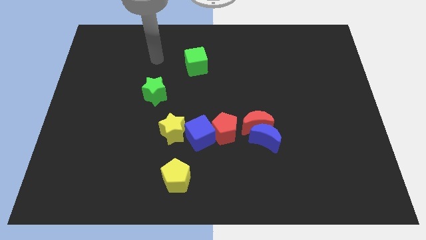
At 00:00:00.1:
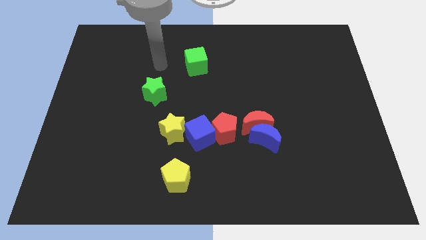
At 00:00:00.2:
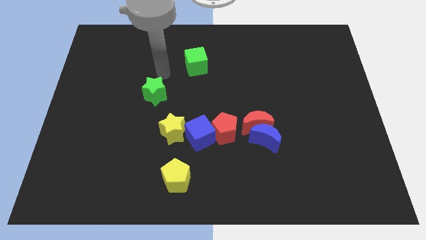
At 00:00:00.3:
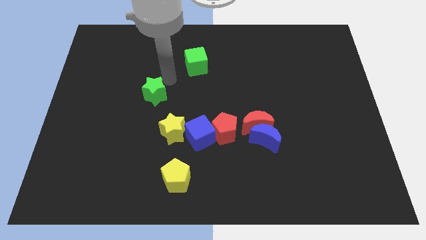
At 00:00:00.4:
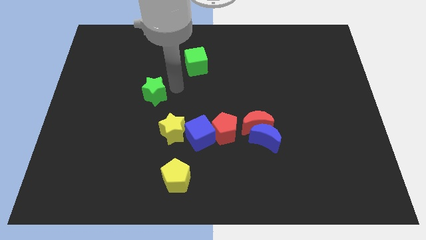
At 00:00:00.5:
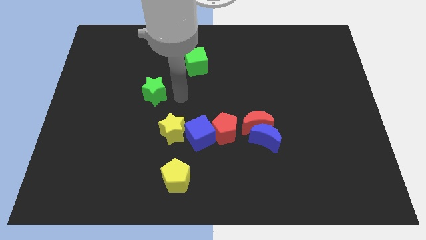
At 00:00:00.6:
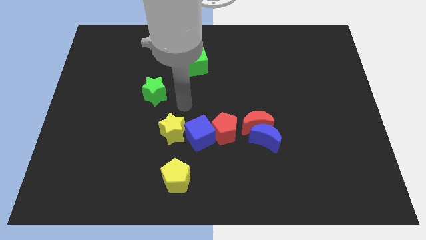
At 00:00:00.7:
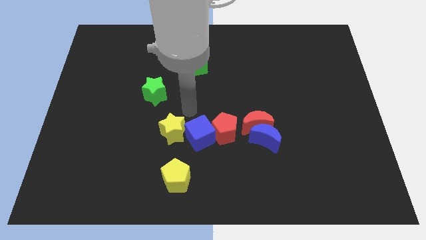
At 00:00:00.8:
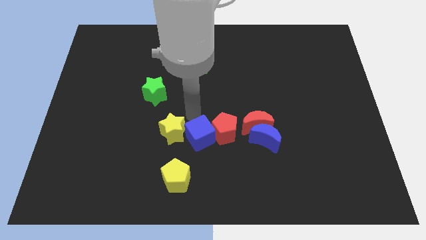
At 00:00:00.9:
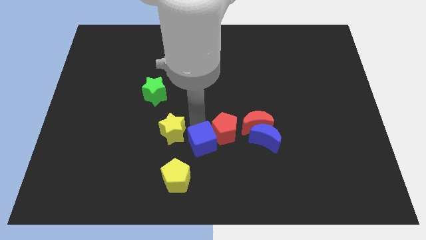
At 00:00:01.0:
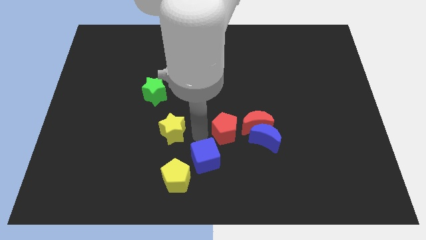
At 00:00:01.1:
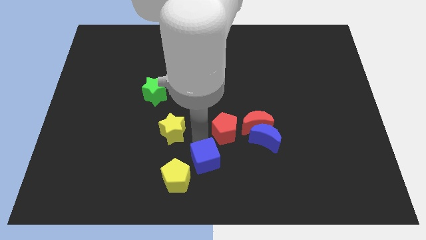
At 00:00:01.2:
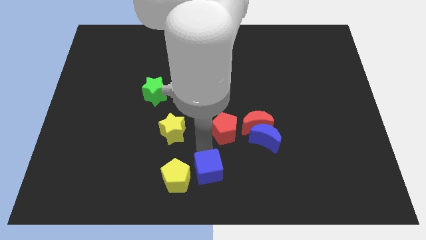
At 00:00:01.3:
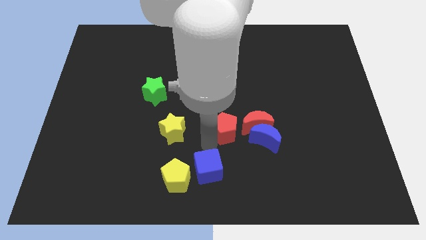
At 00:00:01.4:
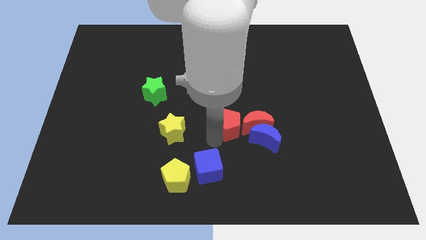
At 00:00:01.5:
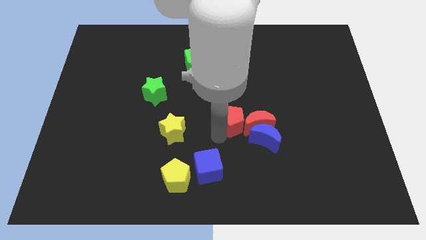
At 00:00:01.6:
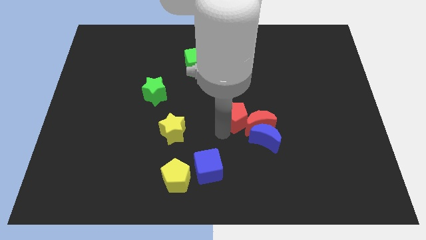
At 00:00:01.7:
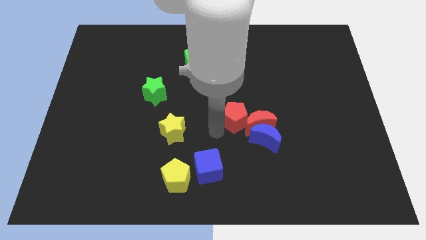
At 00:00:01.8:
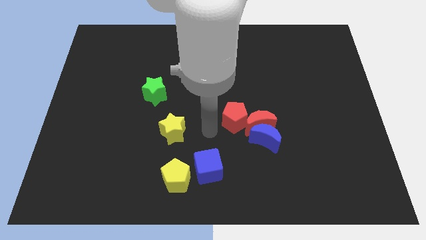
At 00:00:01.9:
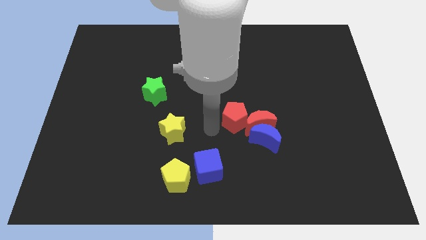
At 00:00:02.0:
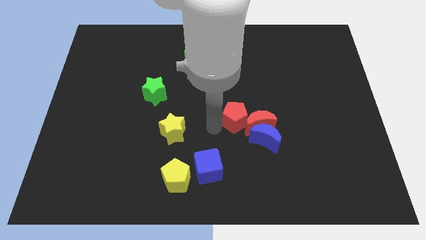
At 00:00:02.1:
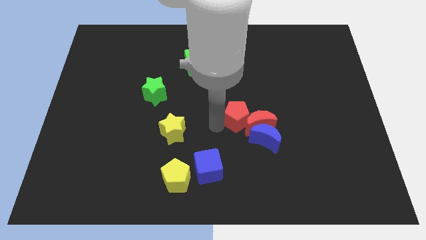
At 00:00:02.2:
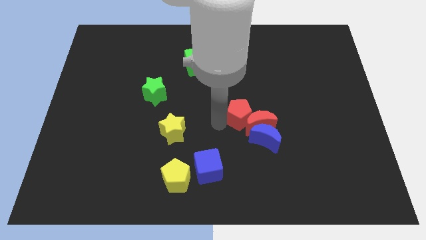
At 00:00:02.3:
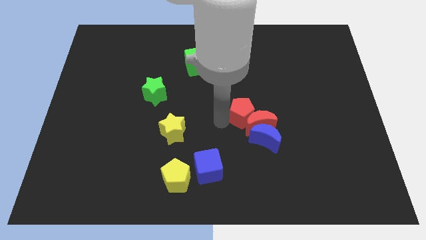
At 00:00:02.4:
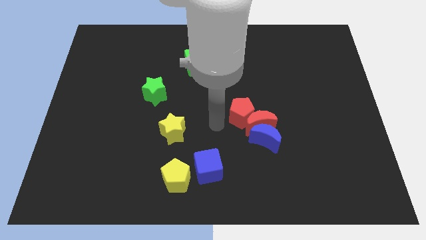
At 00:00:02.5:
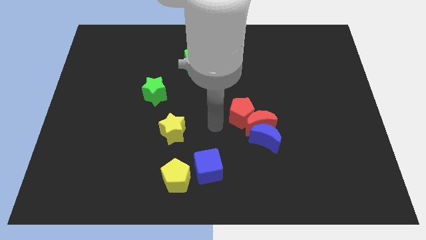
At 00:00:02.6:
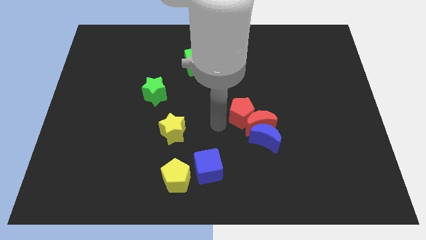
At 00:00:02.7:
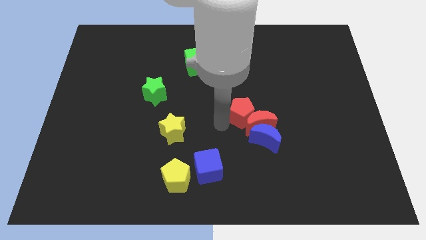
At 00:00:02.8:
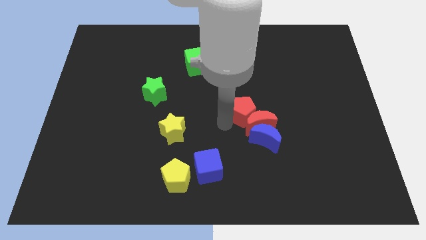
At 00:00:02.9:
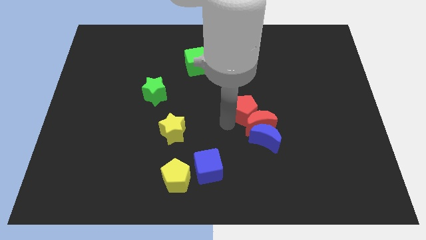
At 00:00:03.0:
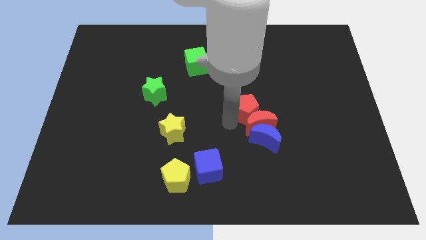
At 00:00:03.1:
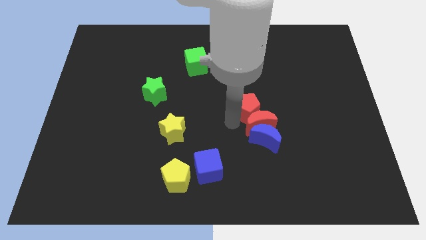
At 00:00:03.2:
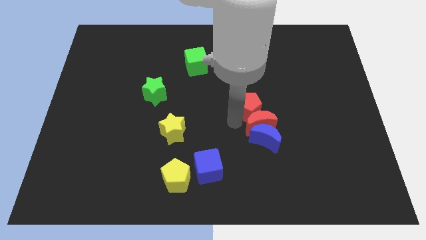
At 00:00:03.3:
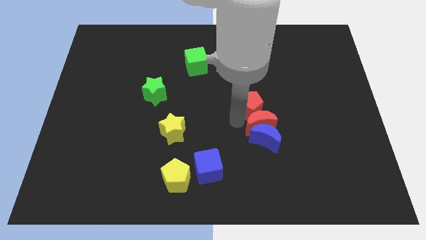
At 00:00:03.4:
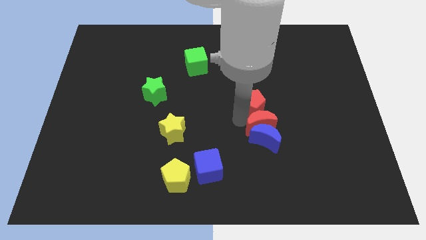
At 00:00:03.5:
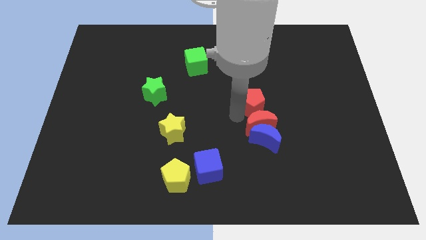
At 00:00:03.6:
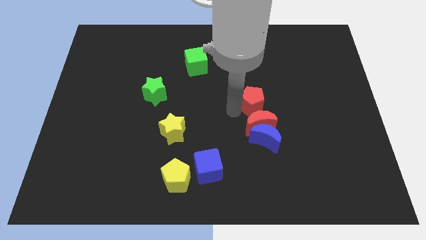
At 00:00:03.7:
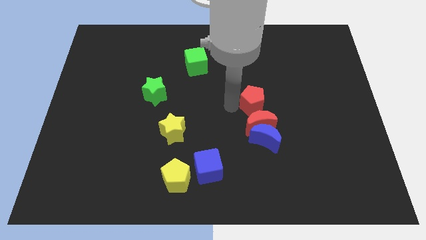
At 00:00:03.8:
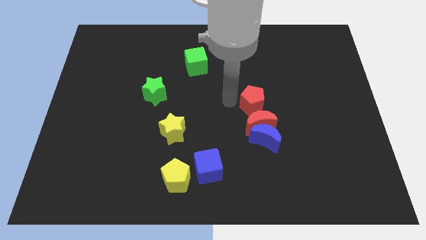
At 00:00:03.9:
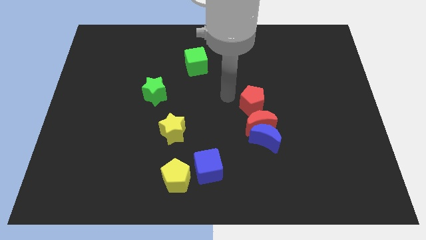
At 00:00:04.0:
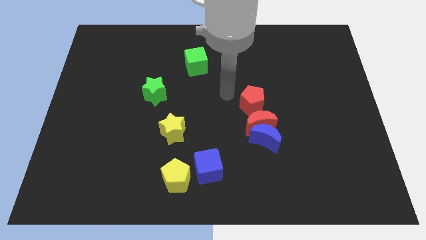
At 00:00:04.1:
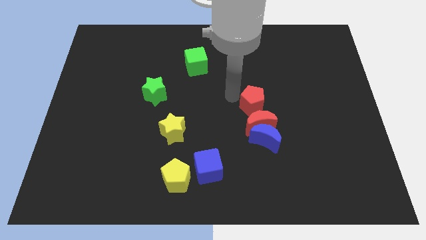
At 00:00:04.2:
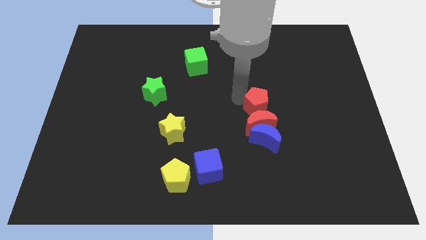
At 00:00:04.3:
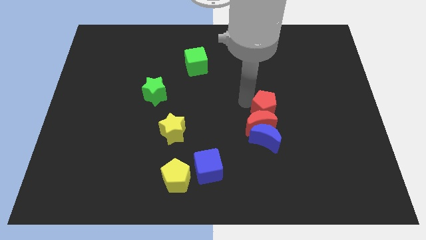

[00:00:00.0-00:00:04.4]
push the red pentagon a little right

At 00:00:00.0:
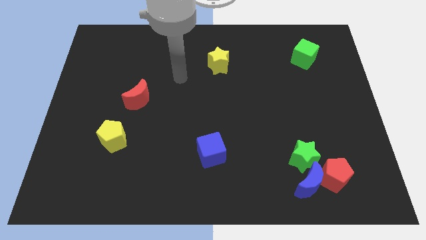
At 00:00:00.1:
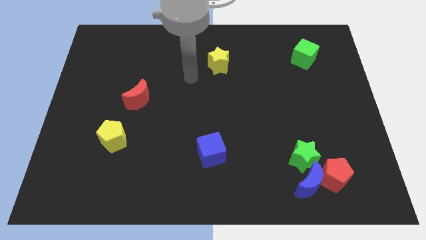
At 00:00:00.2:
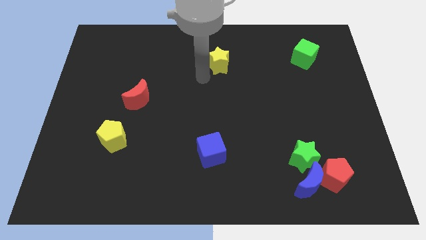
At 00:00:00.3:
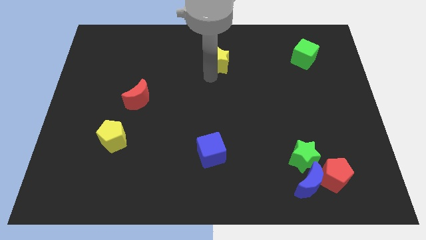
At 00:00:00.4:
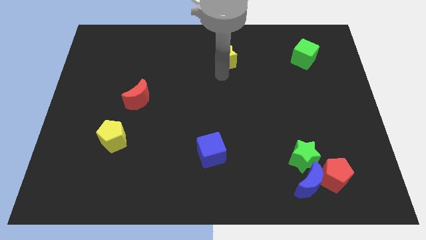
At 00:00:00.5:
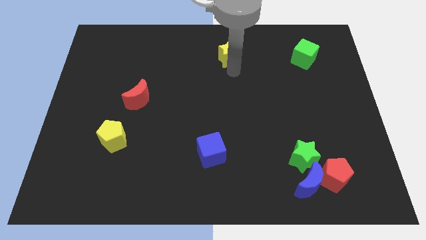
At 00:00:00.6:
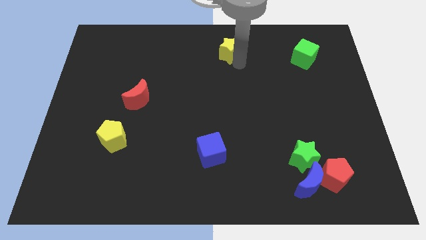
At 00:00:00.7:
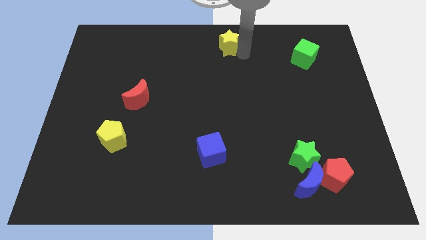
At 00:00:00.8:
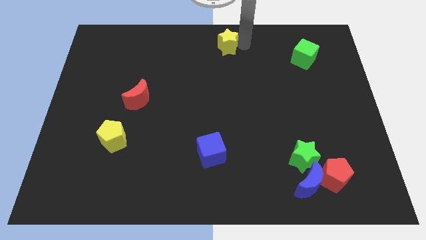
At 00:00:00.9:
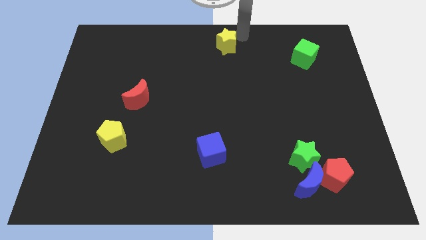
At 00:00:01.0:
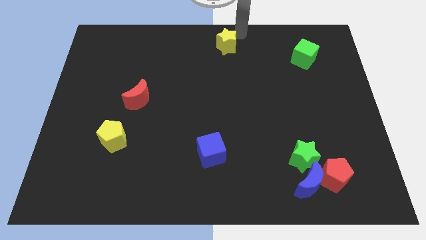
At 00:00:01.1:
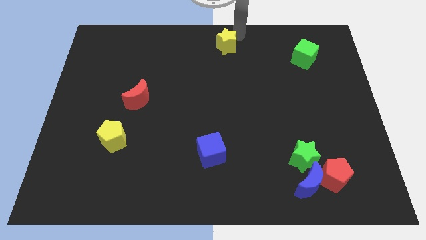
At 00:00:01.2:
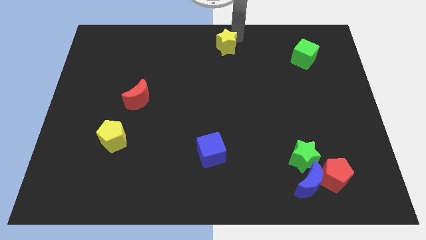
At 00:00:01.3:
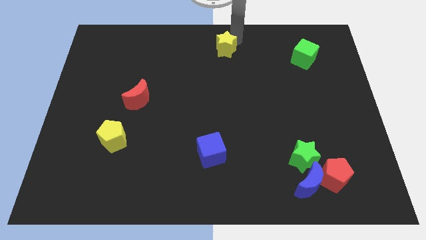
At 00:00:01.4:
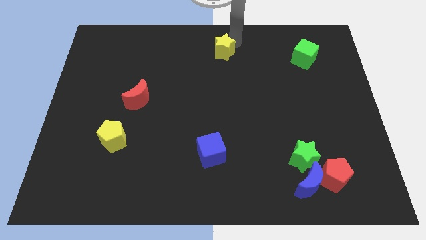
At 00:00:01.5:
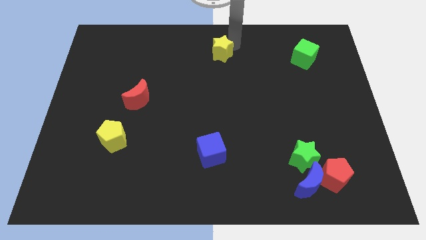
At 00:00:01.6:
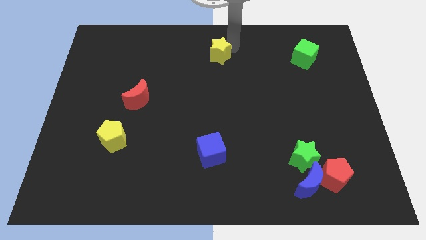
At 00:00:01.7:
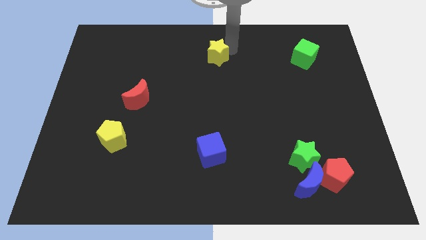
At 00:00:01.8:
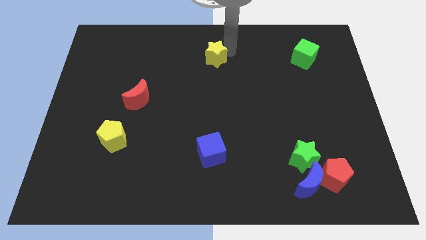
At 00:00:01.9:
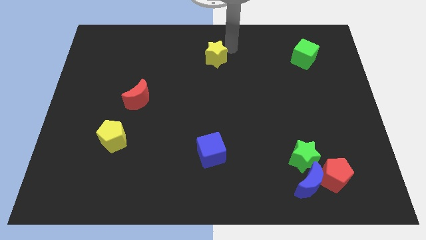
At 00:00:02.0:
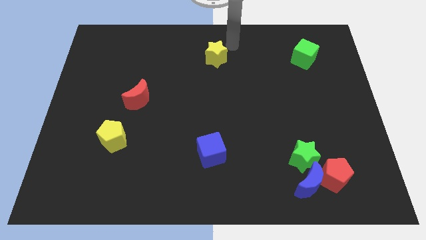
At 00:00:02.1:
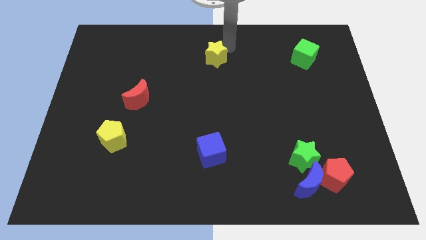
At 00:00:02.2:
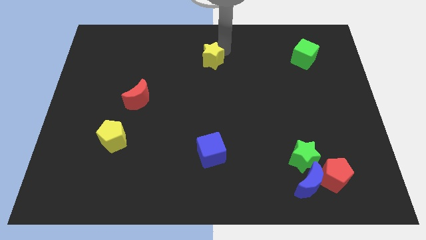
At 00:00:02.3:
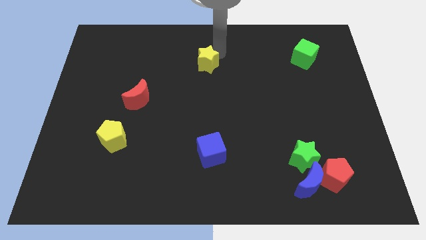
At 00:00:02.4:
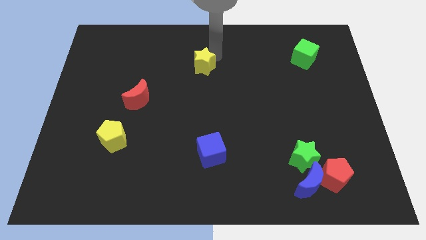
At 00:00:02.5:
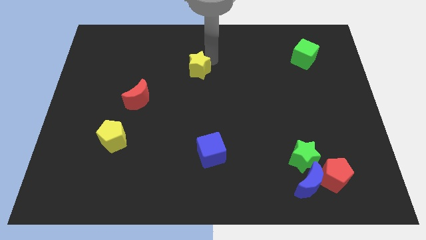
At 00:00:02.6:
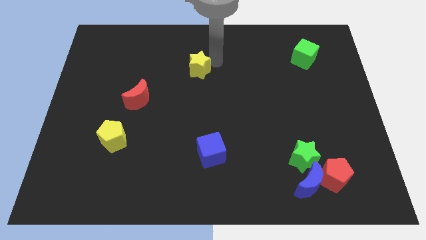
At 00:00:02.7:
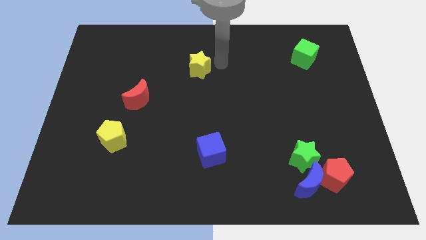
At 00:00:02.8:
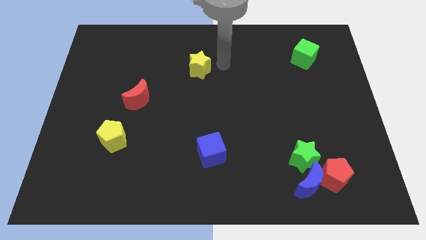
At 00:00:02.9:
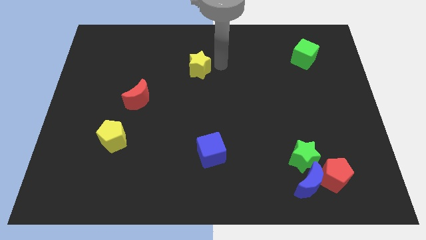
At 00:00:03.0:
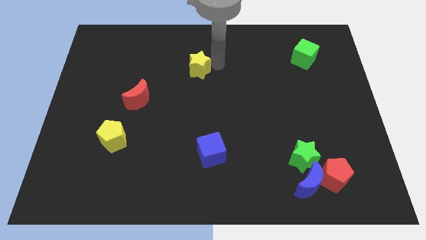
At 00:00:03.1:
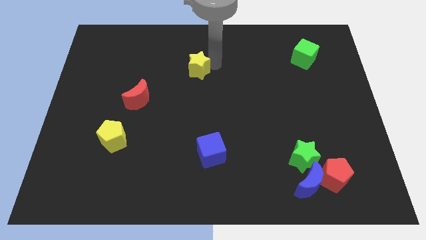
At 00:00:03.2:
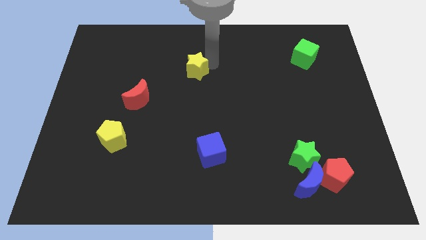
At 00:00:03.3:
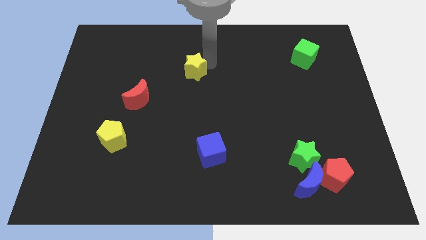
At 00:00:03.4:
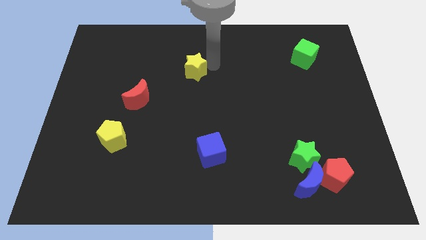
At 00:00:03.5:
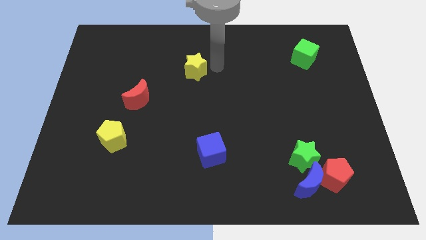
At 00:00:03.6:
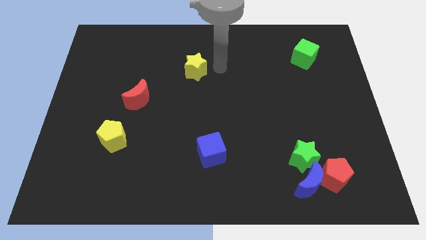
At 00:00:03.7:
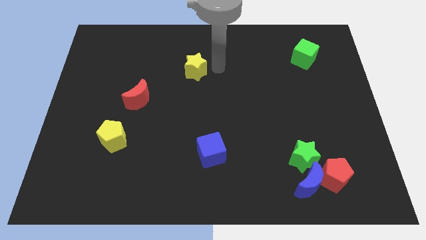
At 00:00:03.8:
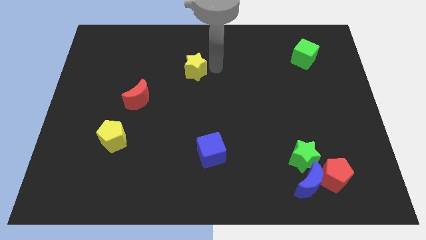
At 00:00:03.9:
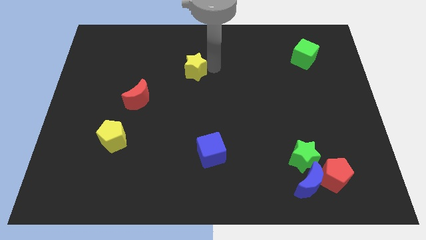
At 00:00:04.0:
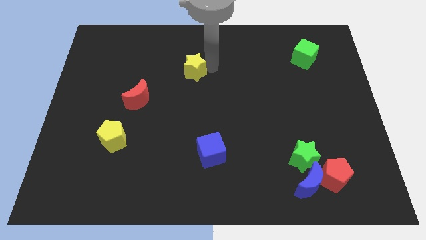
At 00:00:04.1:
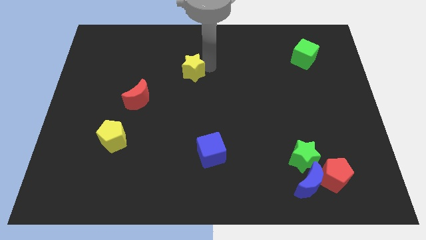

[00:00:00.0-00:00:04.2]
push the yellow star to the left slightly
